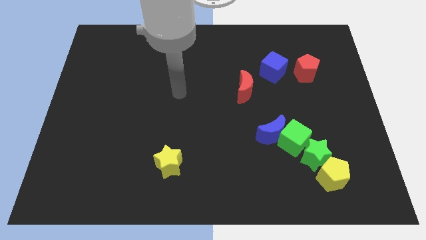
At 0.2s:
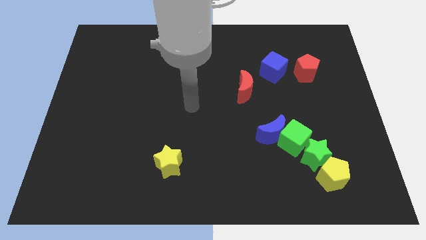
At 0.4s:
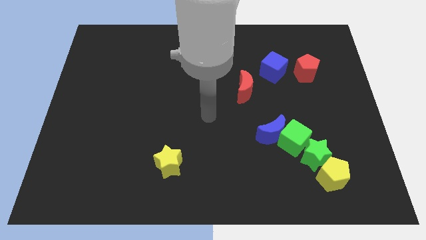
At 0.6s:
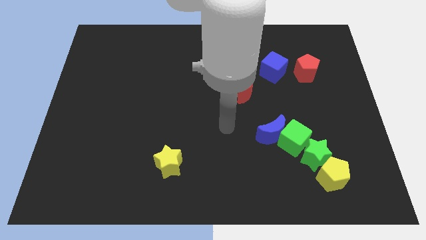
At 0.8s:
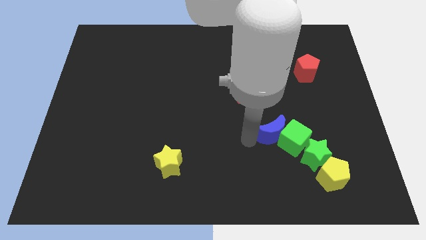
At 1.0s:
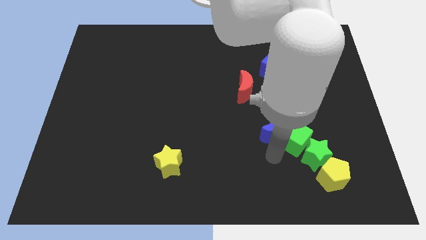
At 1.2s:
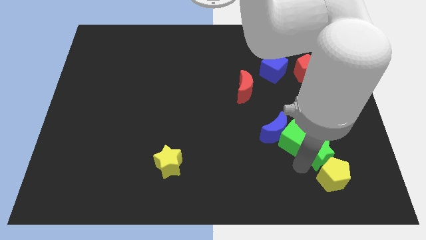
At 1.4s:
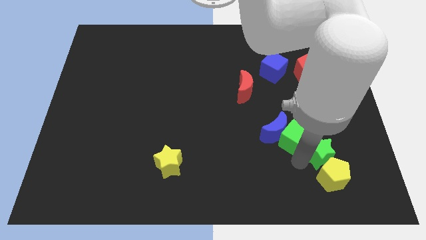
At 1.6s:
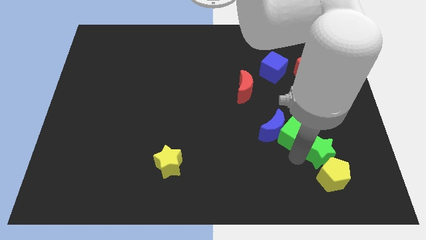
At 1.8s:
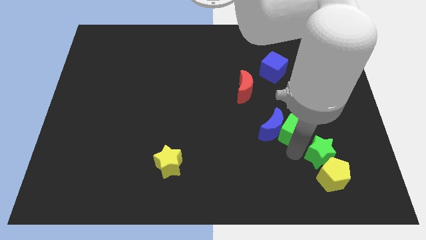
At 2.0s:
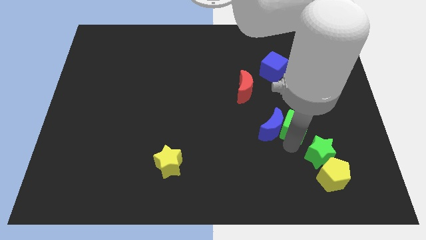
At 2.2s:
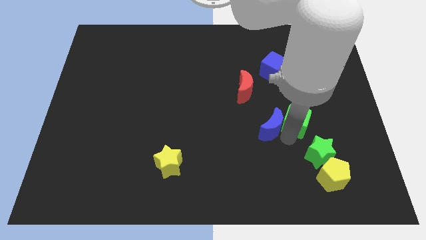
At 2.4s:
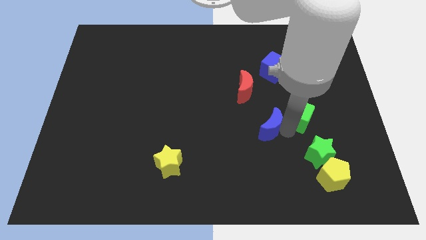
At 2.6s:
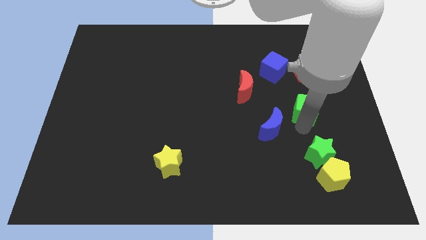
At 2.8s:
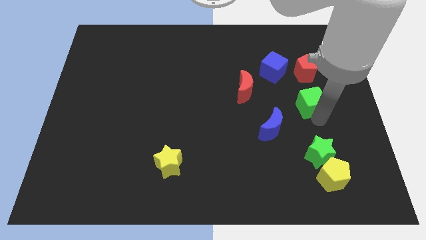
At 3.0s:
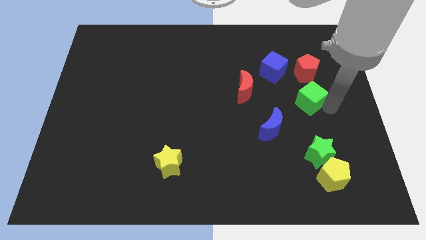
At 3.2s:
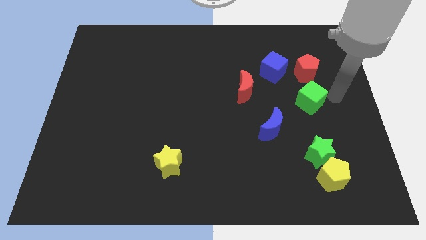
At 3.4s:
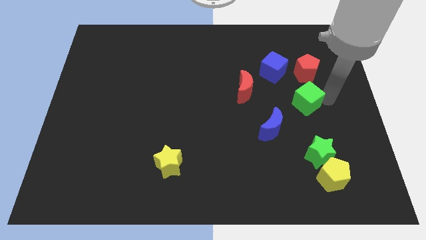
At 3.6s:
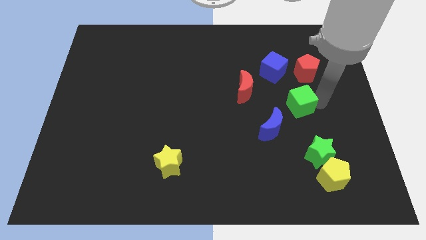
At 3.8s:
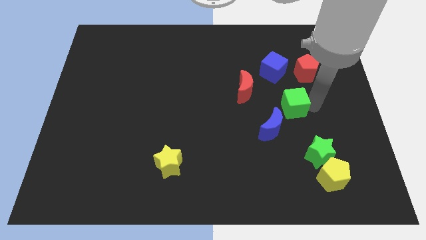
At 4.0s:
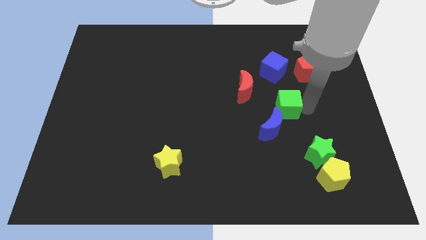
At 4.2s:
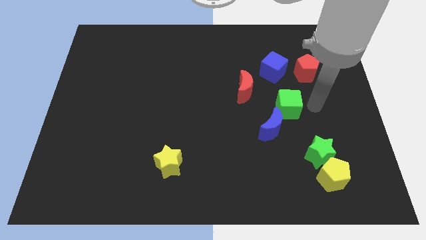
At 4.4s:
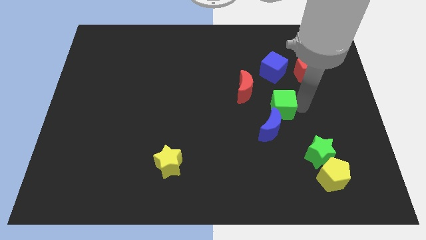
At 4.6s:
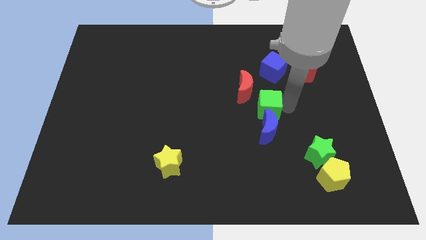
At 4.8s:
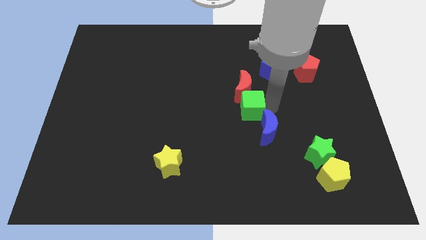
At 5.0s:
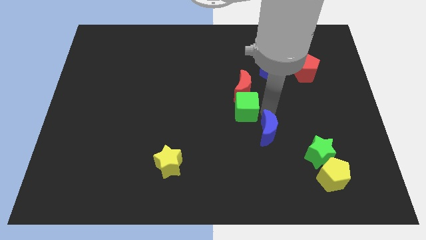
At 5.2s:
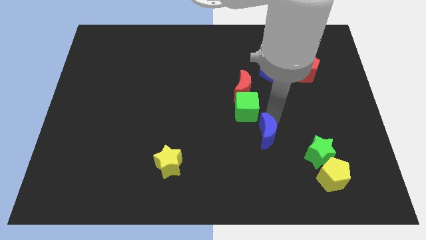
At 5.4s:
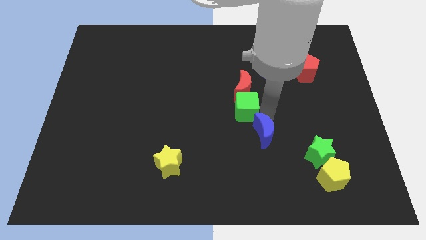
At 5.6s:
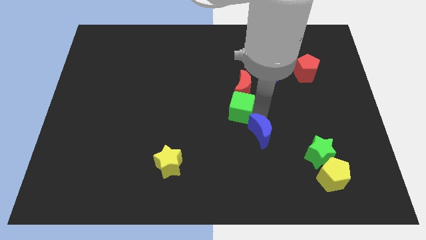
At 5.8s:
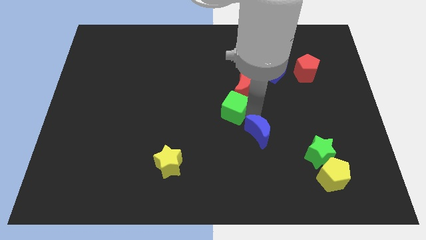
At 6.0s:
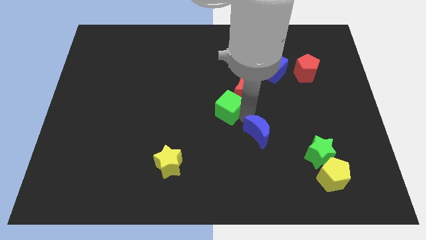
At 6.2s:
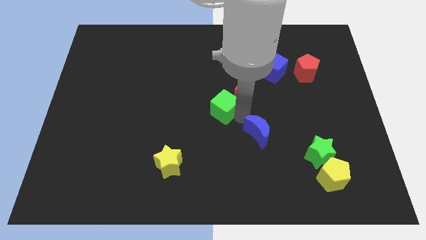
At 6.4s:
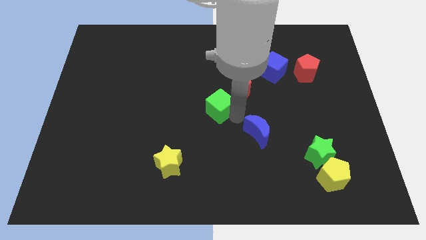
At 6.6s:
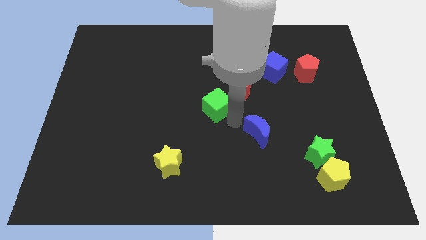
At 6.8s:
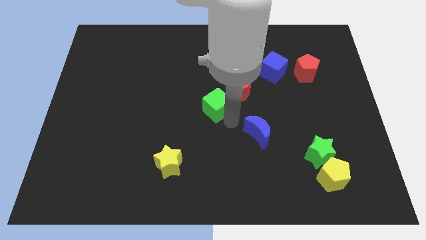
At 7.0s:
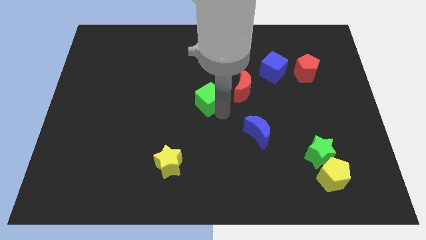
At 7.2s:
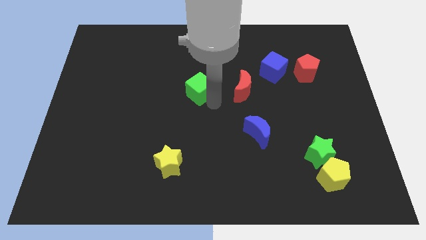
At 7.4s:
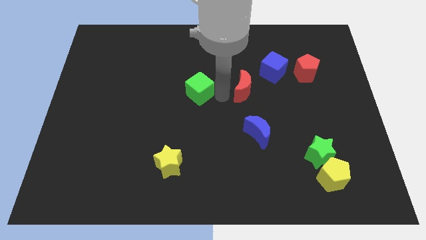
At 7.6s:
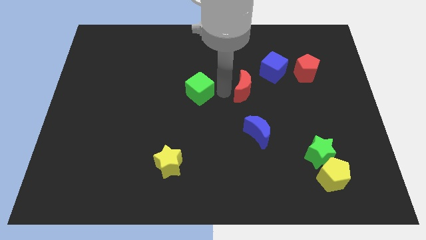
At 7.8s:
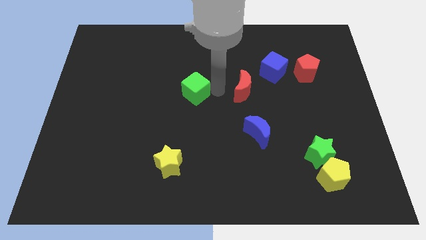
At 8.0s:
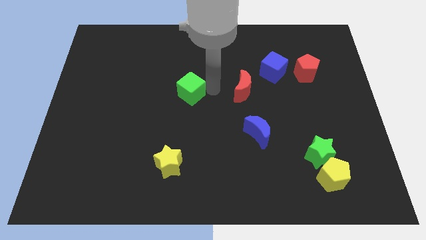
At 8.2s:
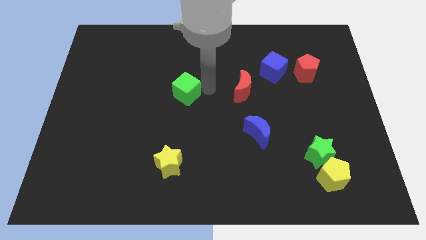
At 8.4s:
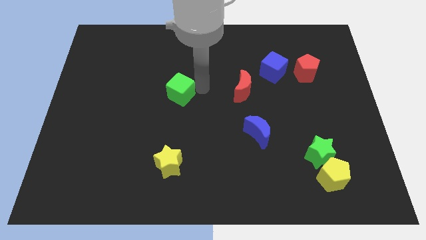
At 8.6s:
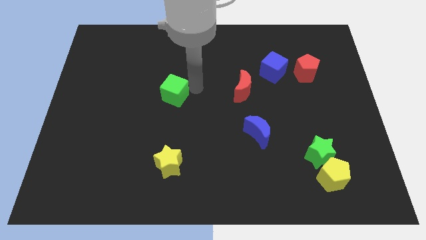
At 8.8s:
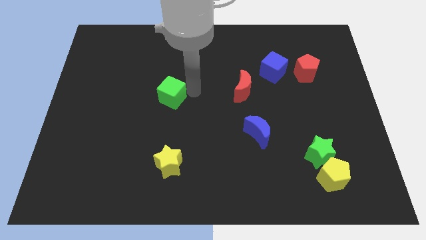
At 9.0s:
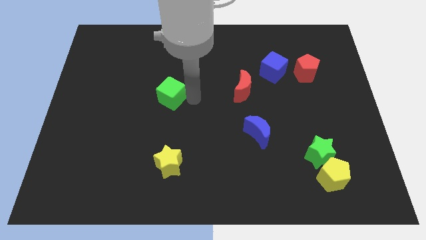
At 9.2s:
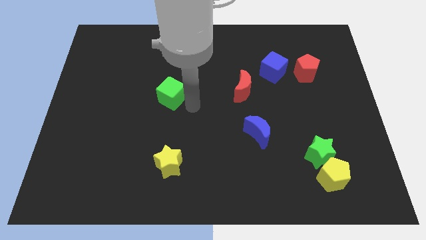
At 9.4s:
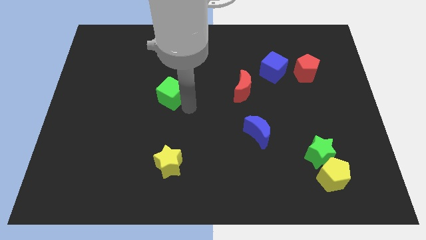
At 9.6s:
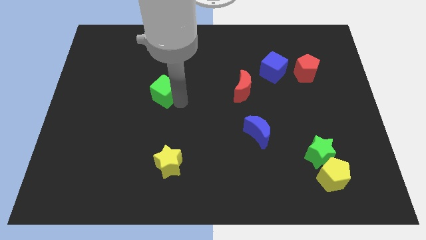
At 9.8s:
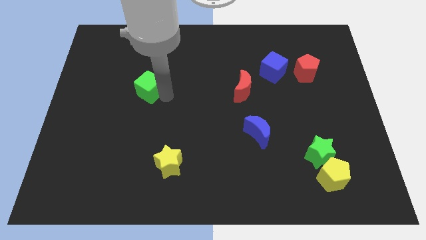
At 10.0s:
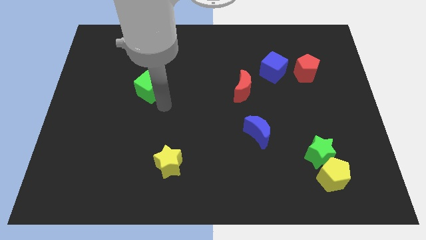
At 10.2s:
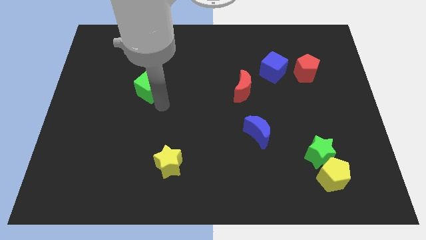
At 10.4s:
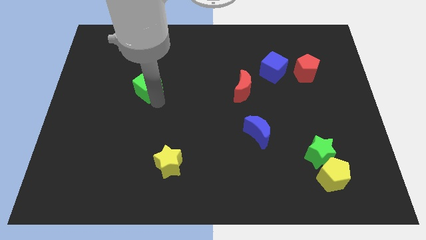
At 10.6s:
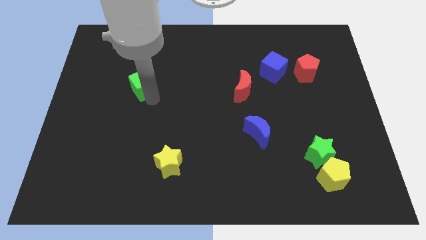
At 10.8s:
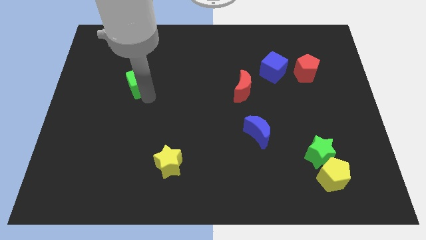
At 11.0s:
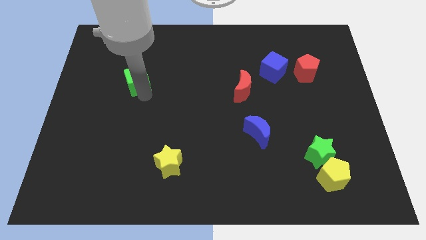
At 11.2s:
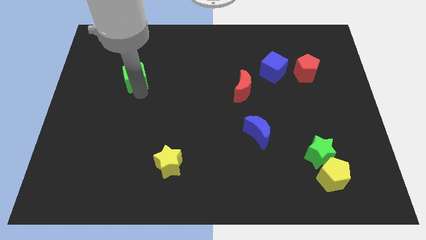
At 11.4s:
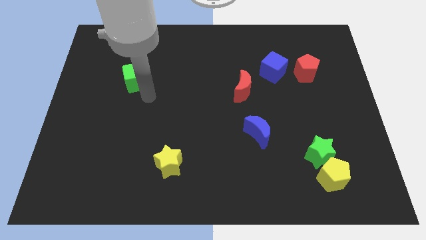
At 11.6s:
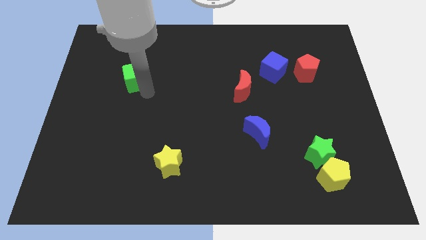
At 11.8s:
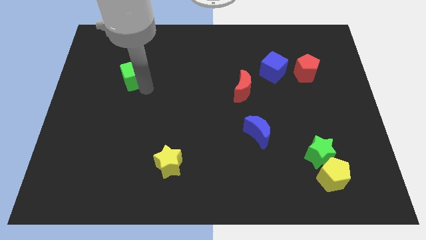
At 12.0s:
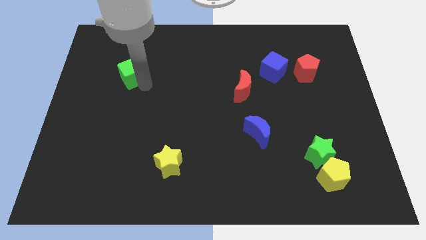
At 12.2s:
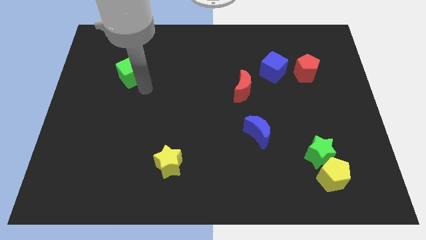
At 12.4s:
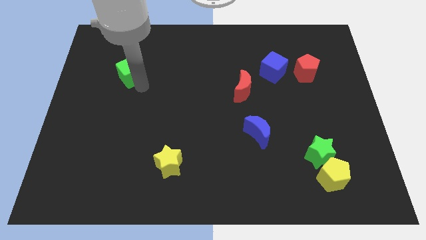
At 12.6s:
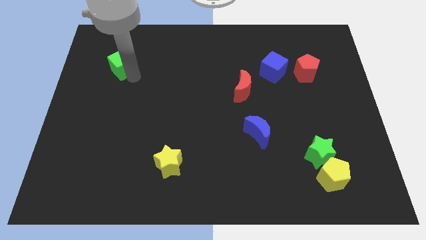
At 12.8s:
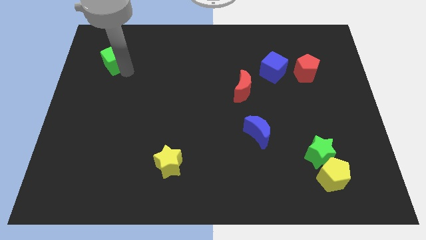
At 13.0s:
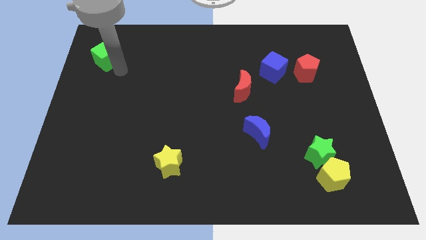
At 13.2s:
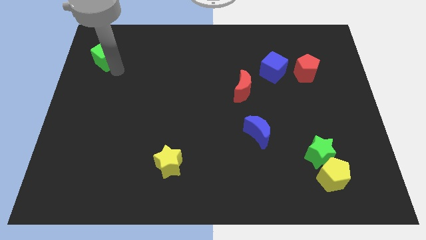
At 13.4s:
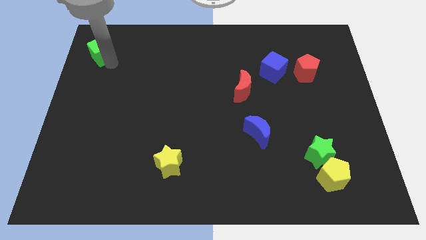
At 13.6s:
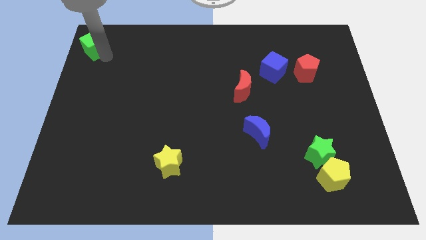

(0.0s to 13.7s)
slide the green cube to the top left of the board
